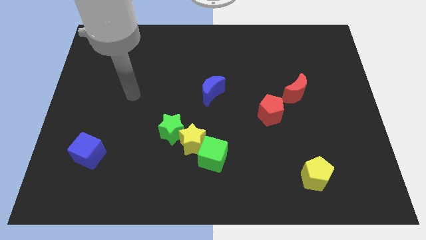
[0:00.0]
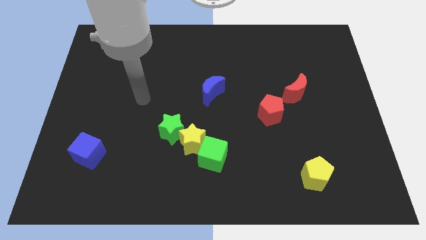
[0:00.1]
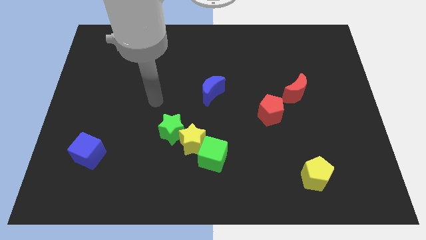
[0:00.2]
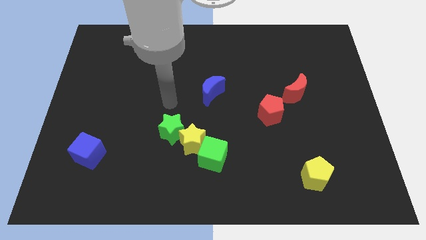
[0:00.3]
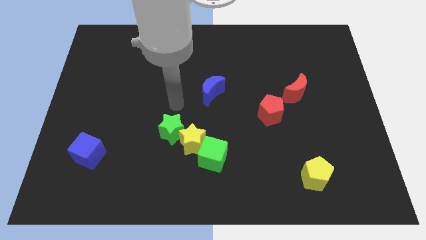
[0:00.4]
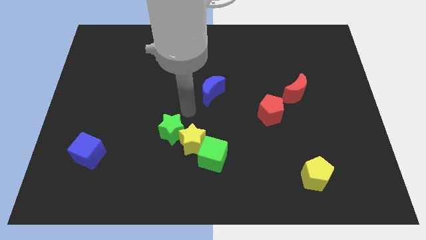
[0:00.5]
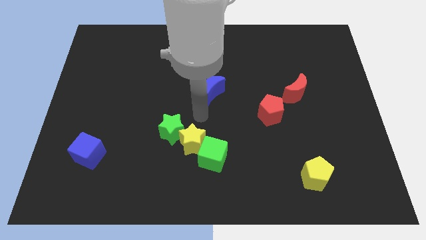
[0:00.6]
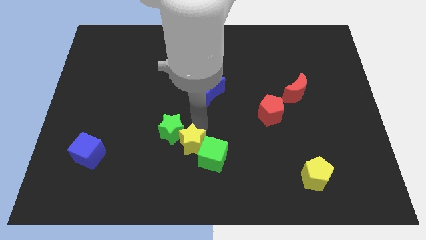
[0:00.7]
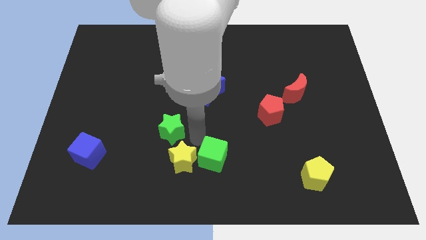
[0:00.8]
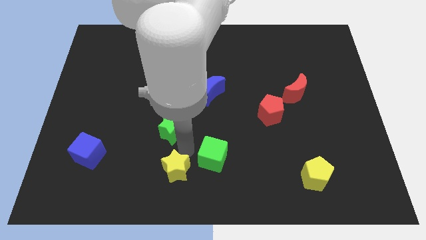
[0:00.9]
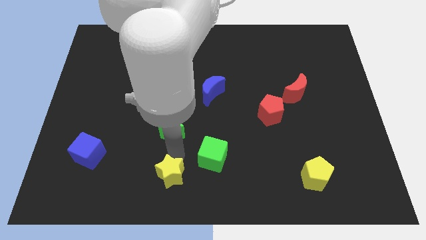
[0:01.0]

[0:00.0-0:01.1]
pull the green star apart from the yellow star

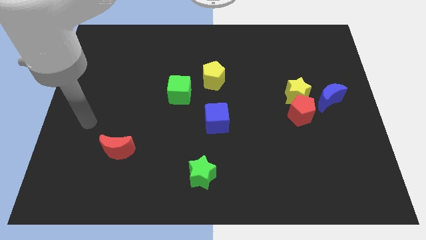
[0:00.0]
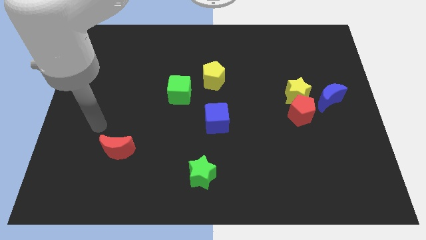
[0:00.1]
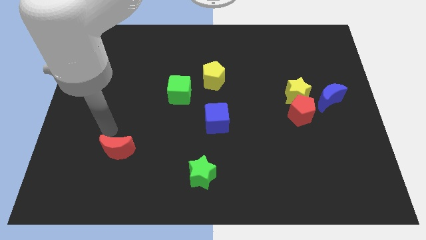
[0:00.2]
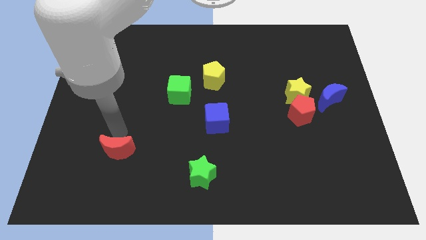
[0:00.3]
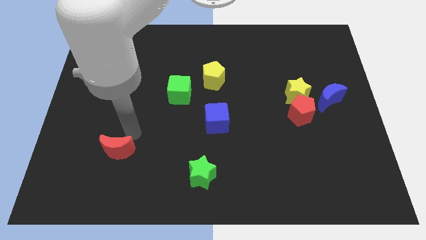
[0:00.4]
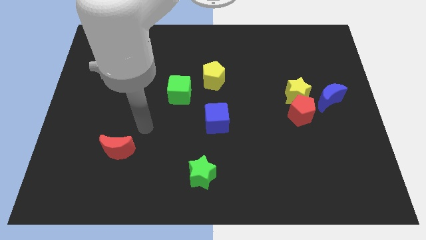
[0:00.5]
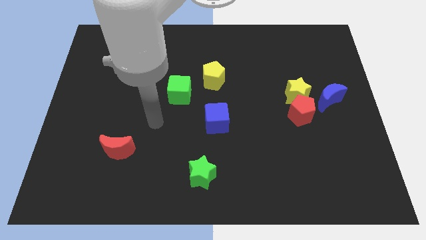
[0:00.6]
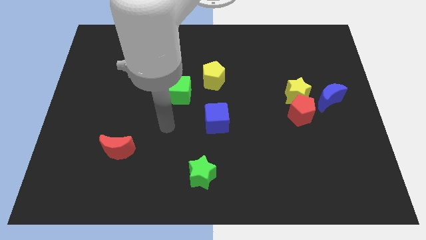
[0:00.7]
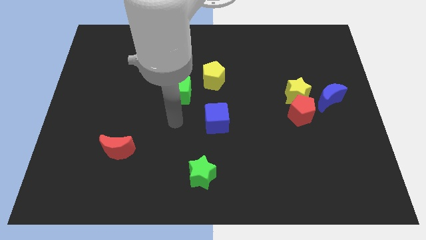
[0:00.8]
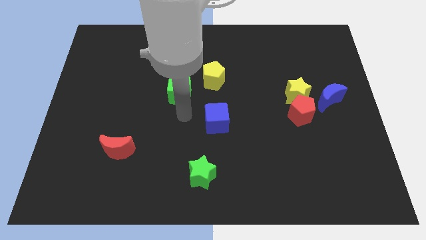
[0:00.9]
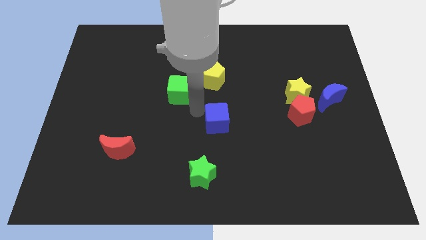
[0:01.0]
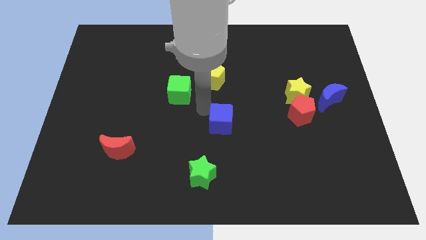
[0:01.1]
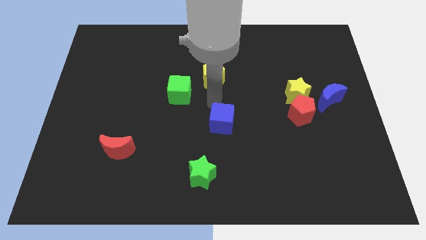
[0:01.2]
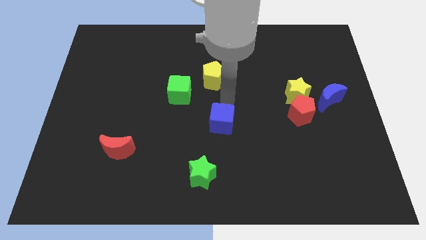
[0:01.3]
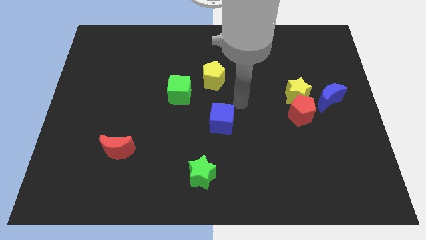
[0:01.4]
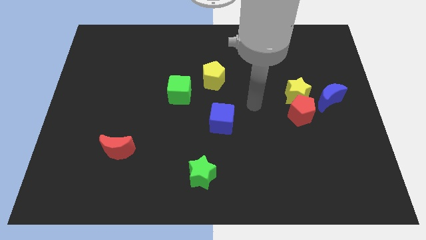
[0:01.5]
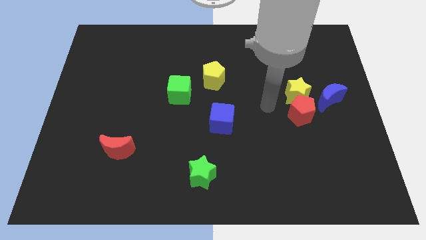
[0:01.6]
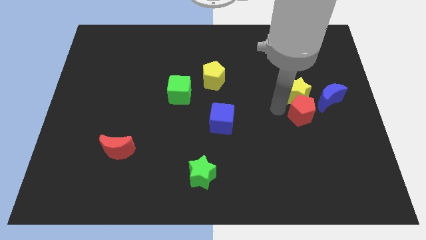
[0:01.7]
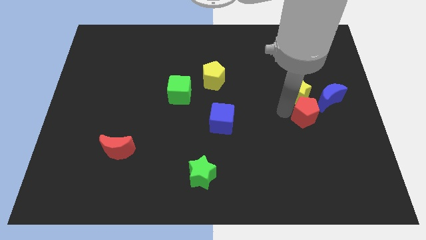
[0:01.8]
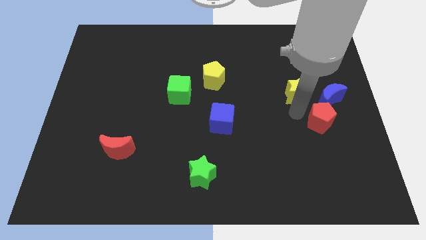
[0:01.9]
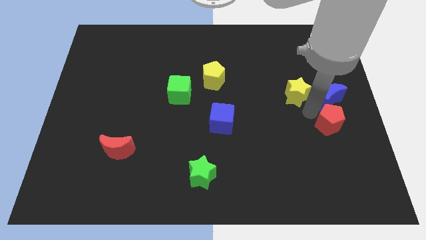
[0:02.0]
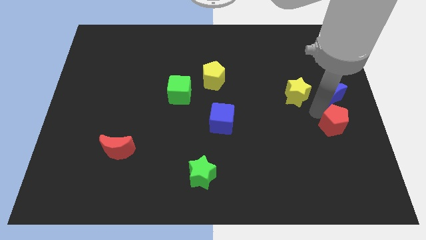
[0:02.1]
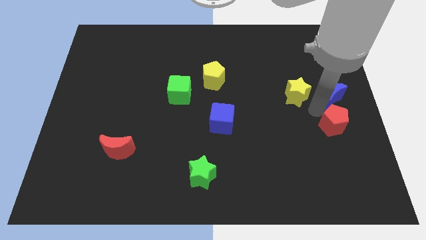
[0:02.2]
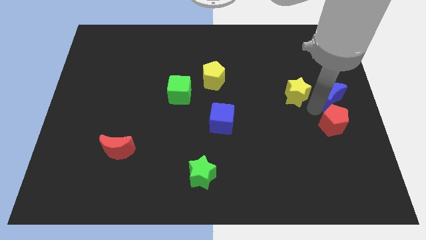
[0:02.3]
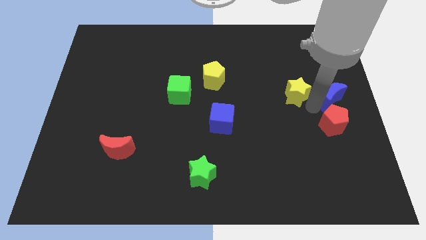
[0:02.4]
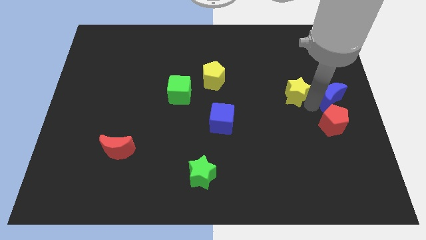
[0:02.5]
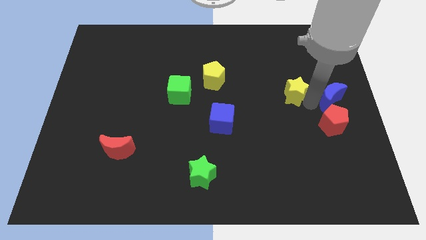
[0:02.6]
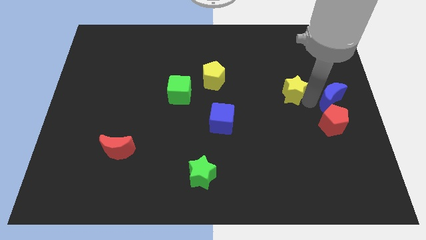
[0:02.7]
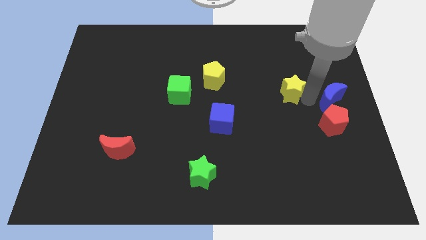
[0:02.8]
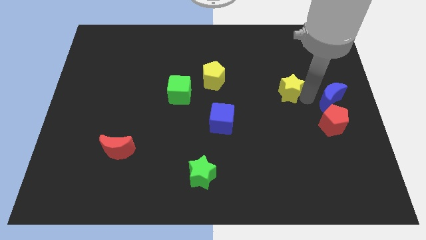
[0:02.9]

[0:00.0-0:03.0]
move the yellow star away from the red pentagon and blue moon

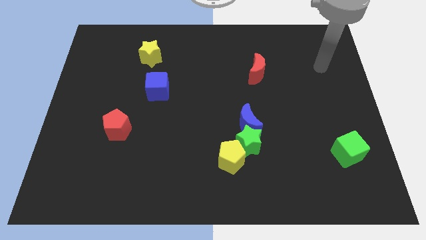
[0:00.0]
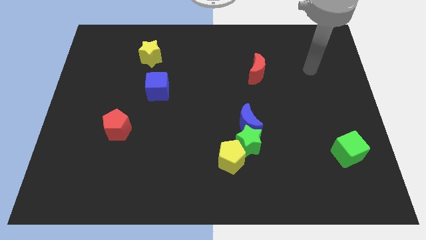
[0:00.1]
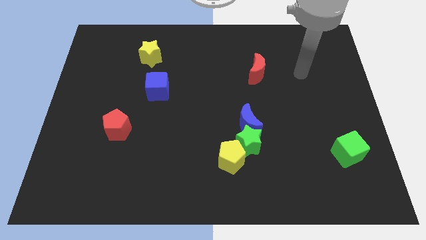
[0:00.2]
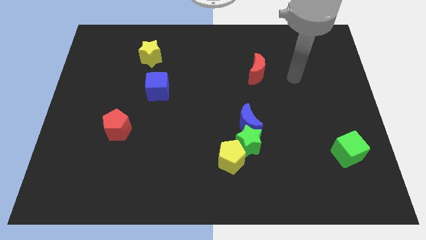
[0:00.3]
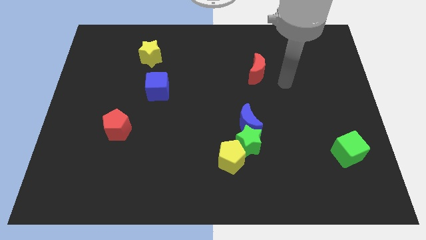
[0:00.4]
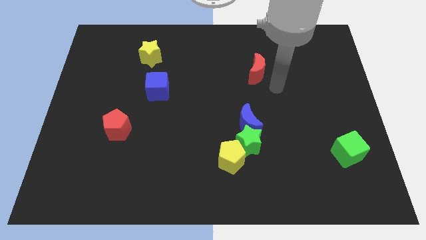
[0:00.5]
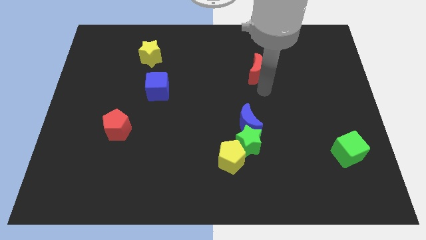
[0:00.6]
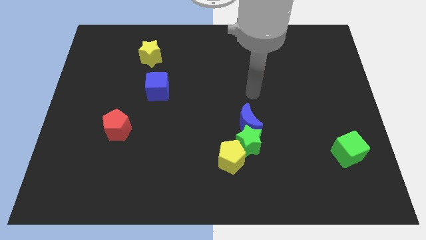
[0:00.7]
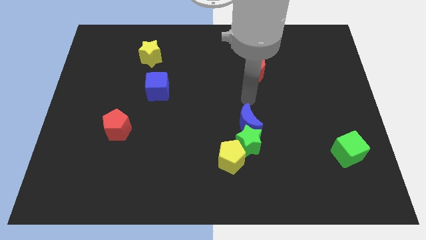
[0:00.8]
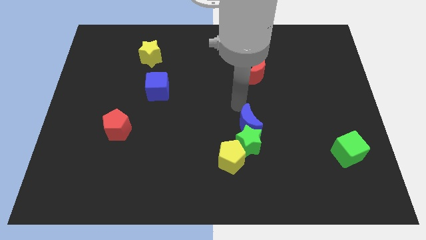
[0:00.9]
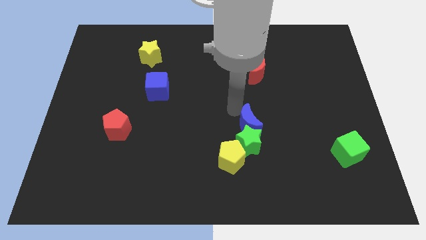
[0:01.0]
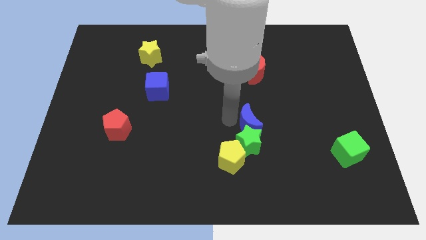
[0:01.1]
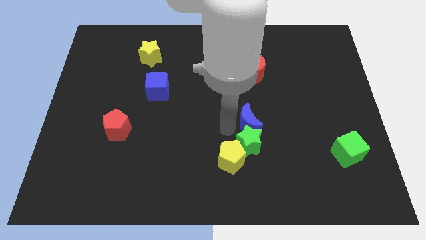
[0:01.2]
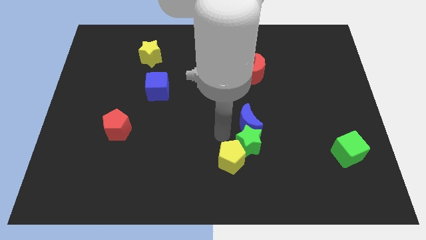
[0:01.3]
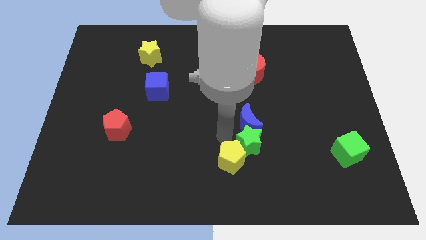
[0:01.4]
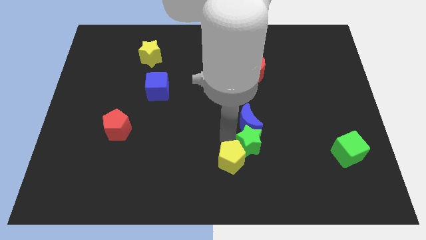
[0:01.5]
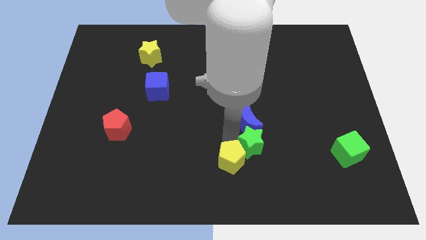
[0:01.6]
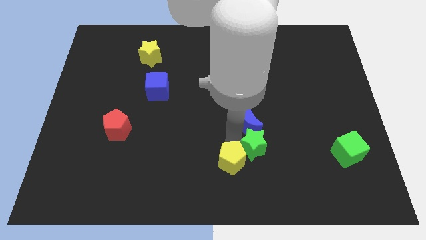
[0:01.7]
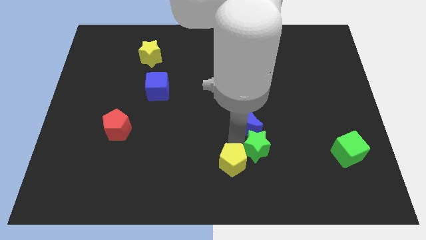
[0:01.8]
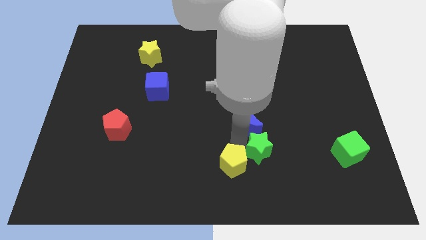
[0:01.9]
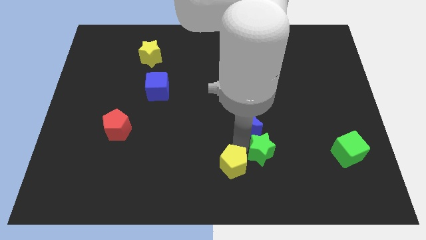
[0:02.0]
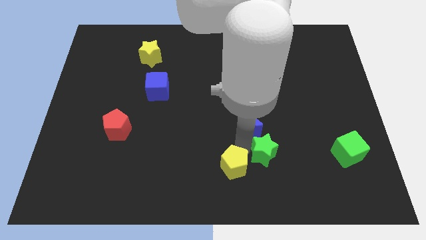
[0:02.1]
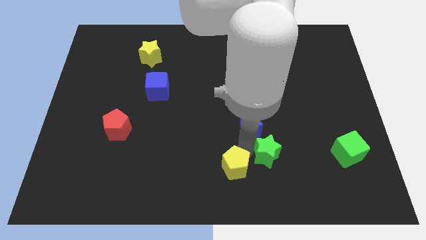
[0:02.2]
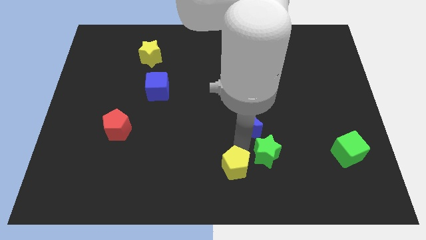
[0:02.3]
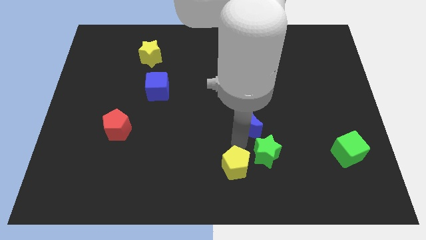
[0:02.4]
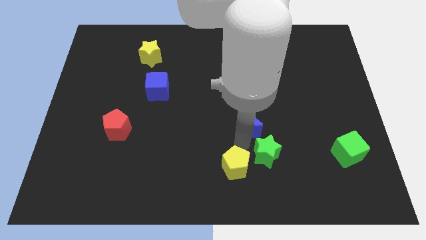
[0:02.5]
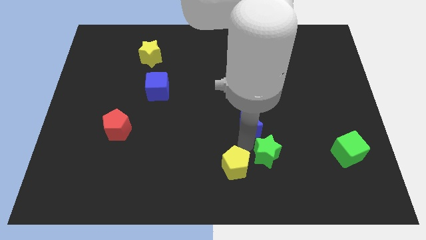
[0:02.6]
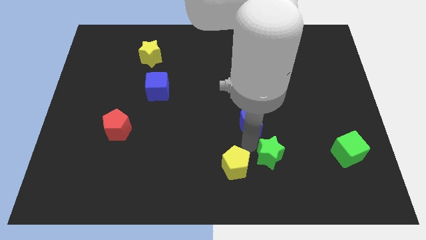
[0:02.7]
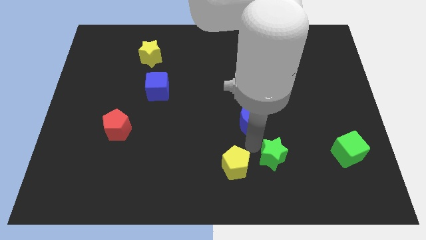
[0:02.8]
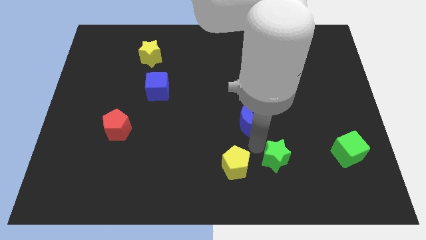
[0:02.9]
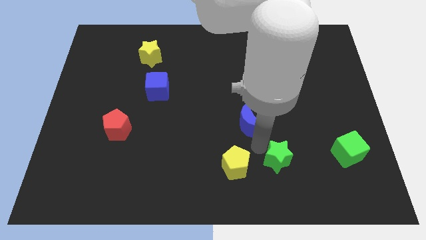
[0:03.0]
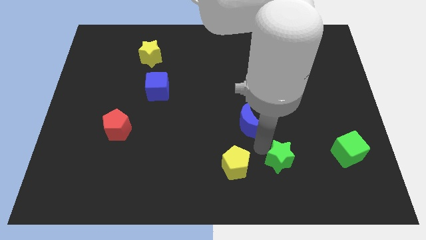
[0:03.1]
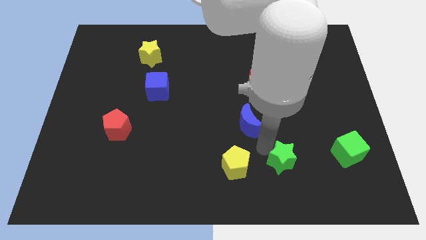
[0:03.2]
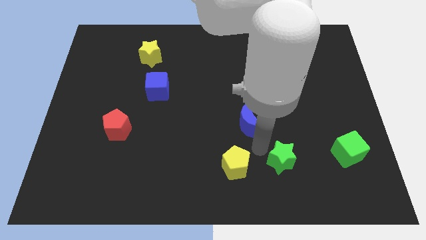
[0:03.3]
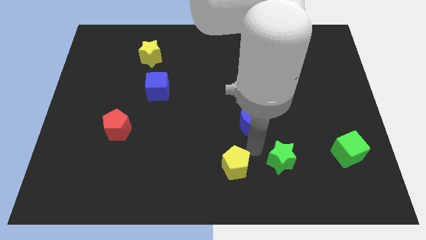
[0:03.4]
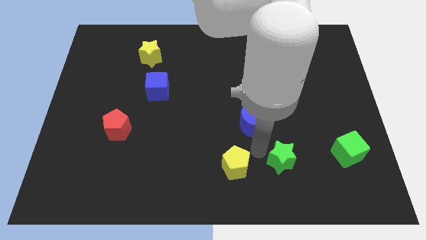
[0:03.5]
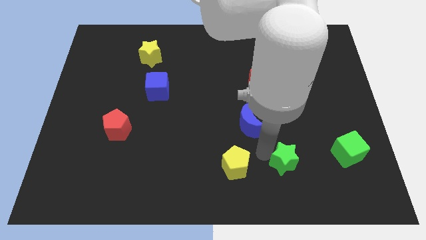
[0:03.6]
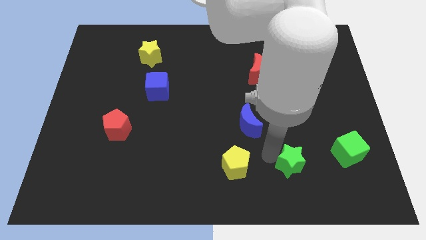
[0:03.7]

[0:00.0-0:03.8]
move the green star away from the blue moon and yellow pentagon

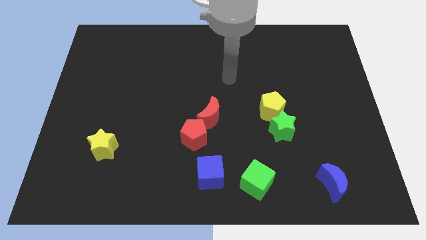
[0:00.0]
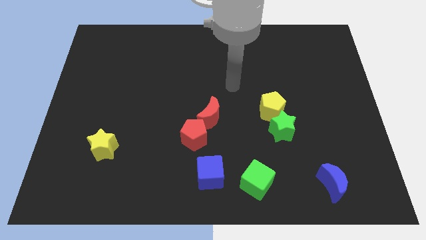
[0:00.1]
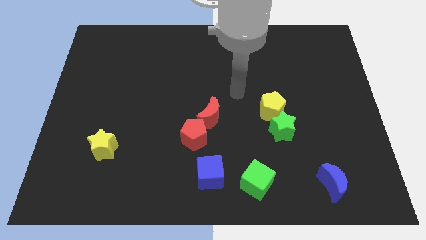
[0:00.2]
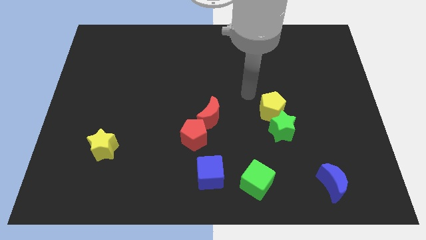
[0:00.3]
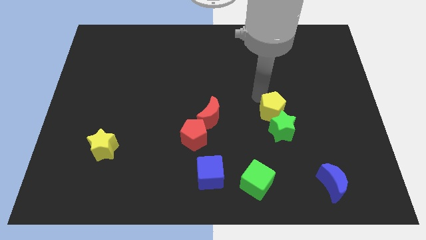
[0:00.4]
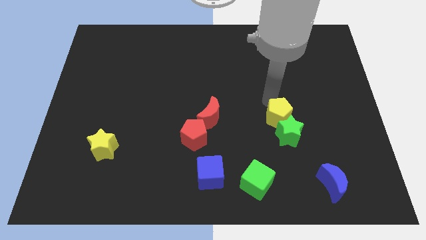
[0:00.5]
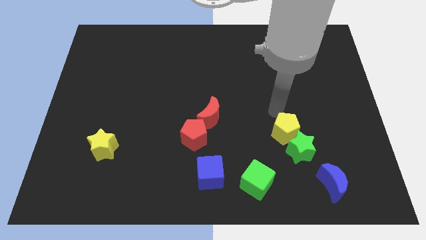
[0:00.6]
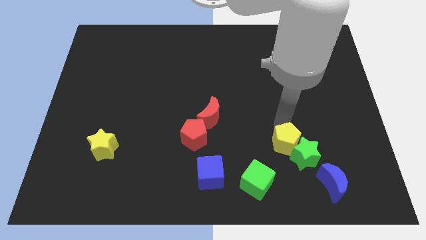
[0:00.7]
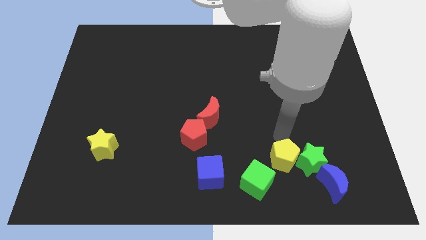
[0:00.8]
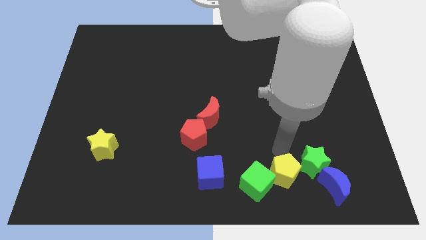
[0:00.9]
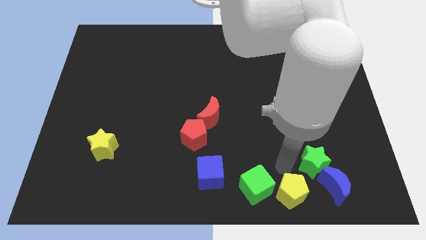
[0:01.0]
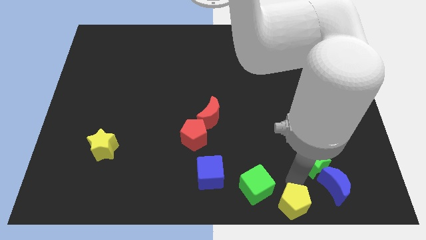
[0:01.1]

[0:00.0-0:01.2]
separate the green star from the yellow pentagon

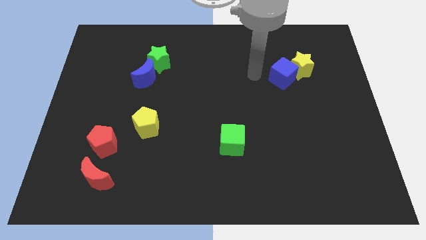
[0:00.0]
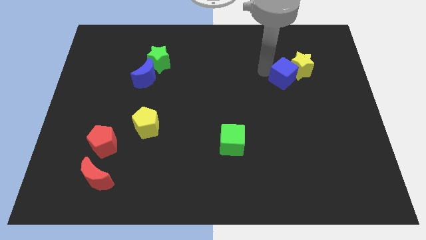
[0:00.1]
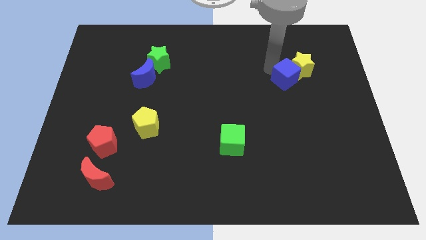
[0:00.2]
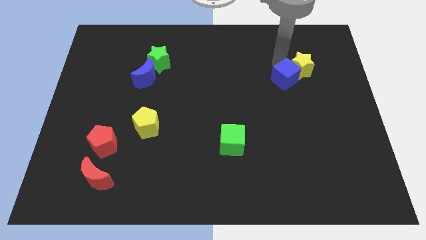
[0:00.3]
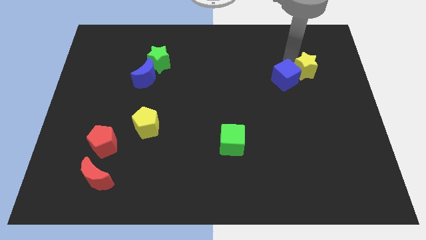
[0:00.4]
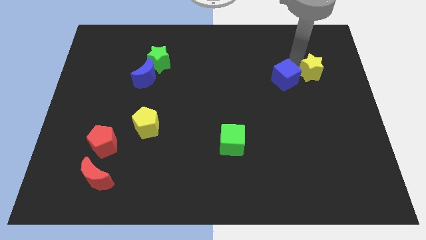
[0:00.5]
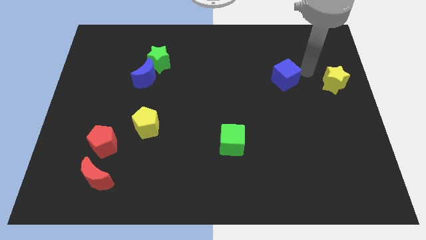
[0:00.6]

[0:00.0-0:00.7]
pull the blue cube apart from the yellow star
